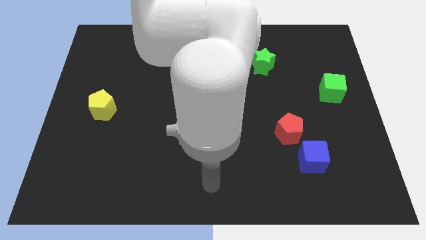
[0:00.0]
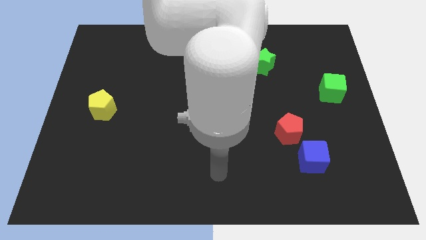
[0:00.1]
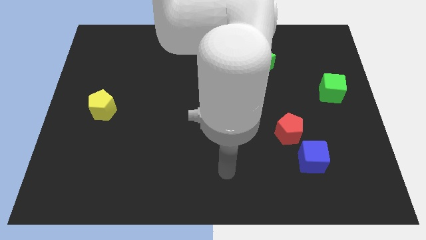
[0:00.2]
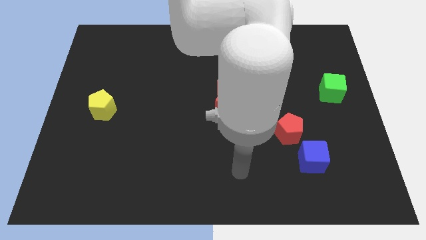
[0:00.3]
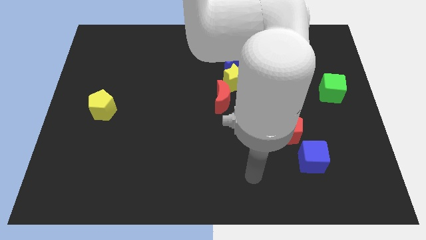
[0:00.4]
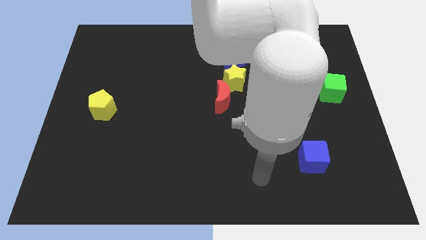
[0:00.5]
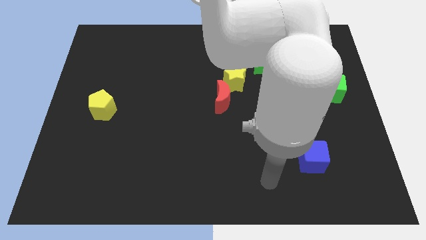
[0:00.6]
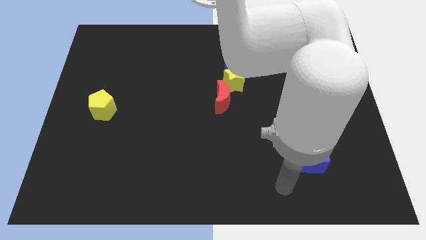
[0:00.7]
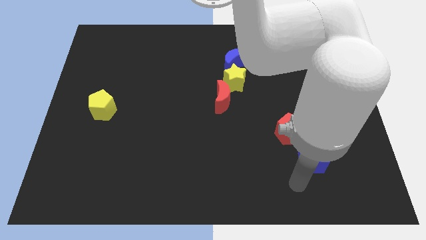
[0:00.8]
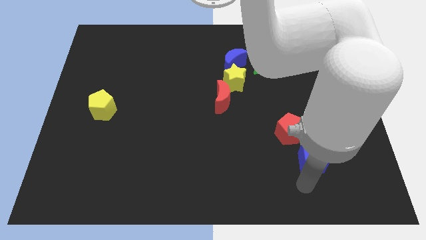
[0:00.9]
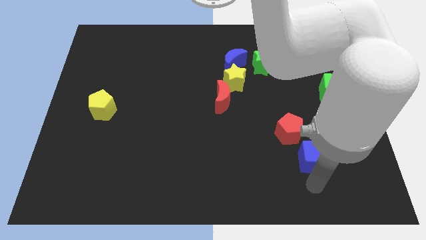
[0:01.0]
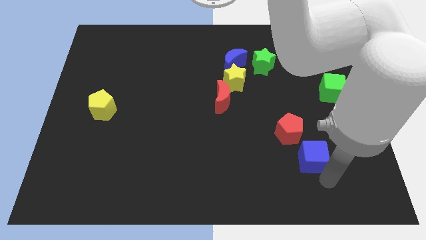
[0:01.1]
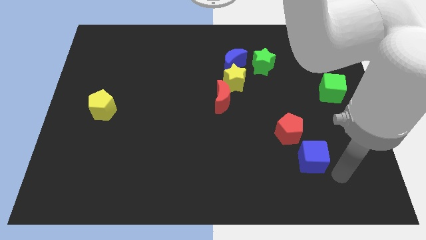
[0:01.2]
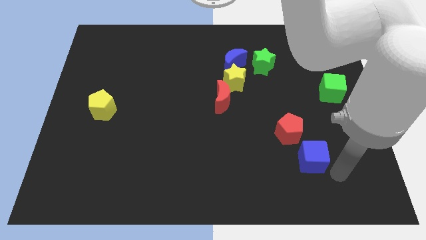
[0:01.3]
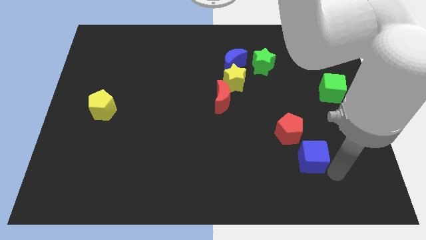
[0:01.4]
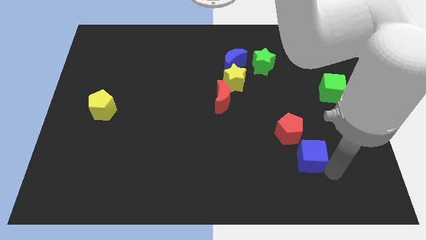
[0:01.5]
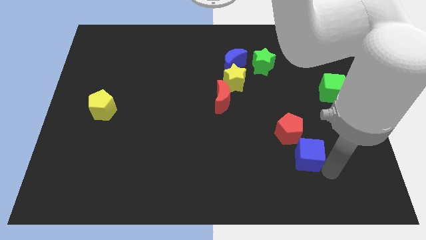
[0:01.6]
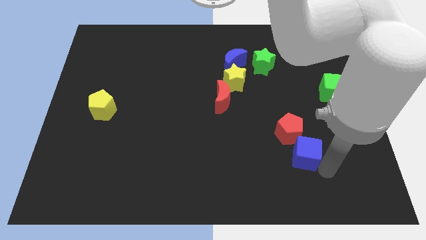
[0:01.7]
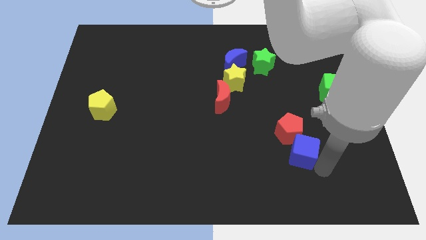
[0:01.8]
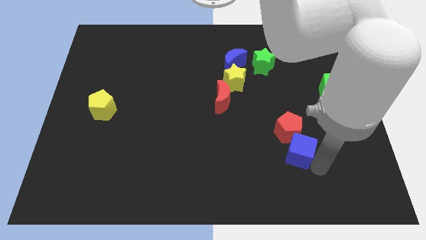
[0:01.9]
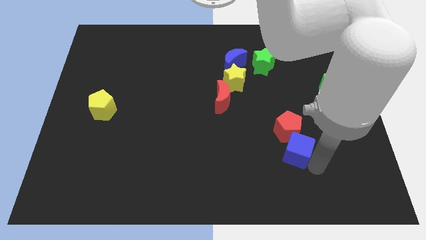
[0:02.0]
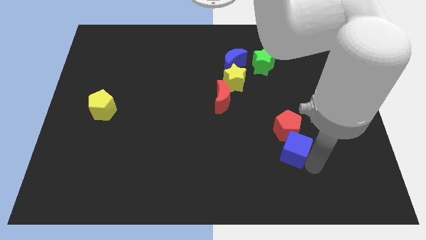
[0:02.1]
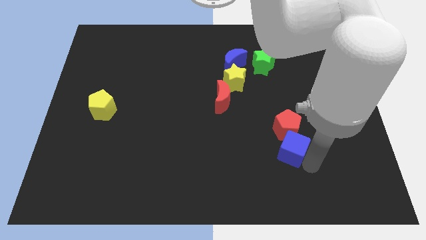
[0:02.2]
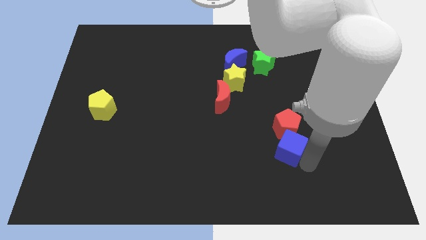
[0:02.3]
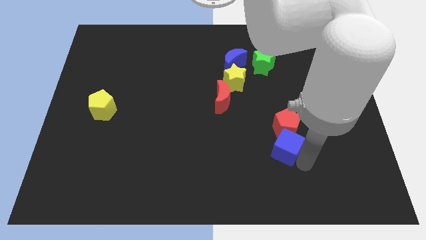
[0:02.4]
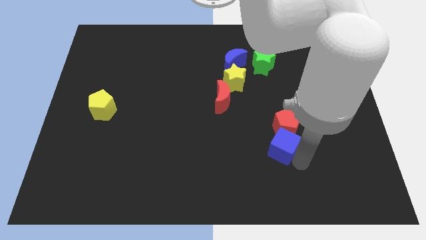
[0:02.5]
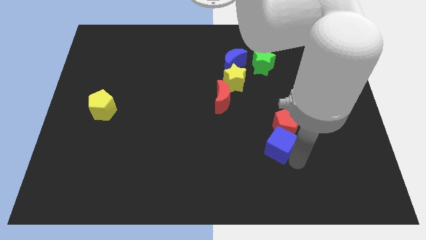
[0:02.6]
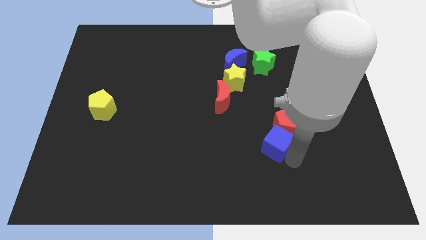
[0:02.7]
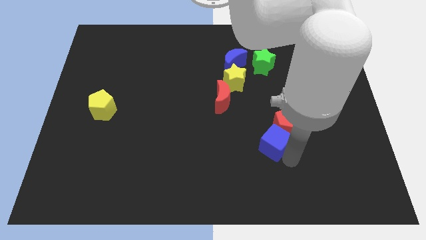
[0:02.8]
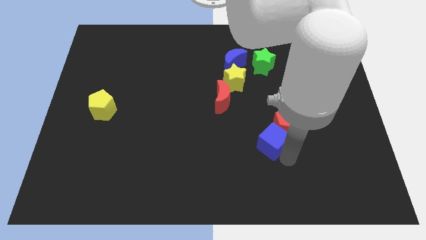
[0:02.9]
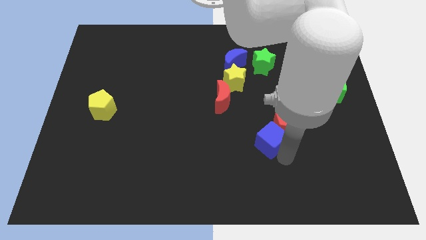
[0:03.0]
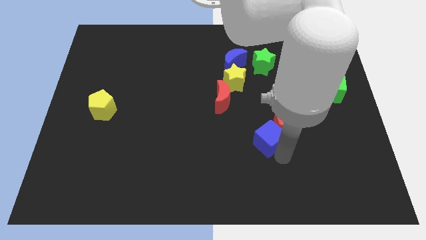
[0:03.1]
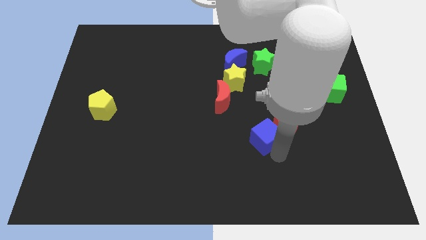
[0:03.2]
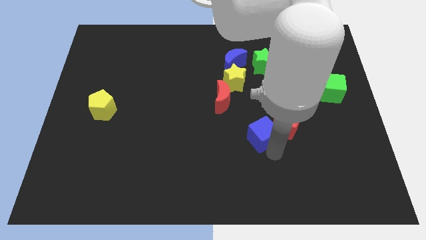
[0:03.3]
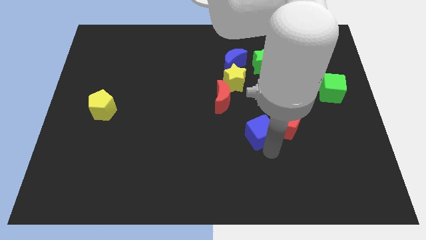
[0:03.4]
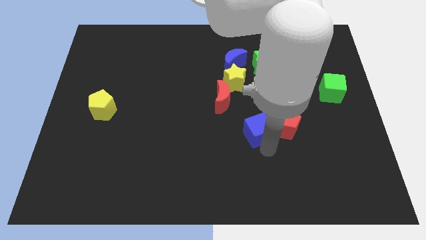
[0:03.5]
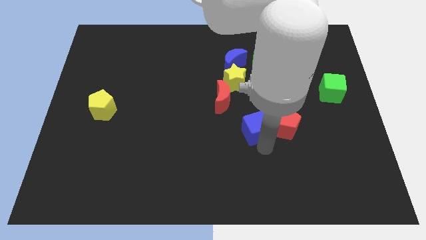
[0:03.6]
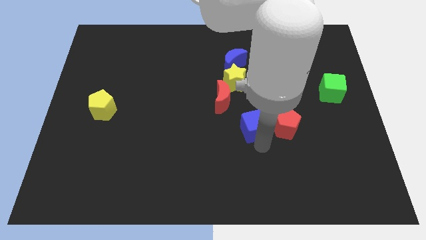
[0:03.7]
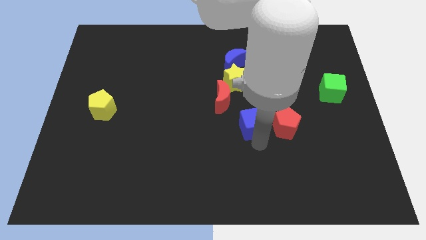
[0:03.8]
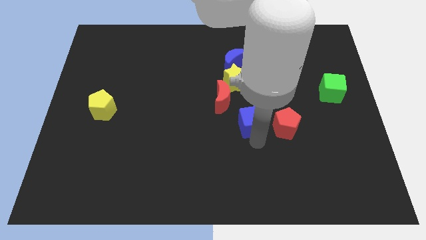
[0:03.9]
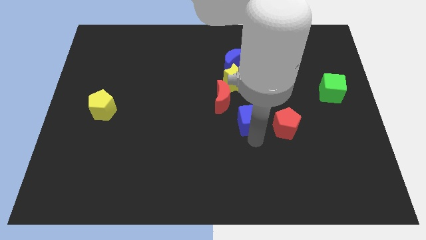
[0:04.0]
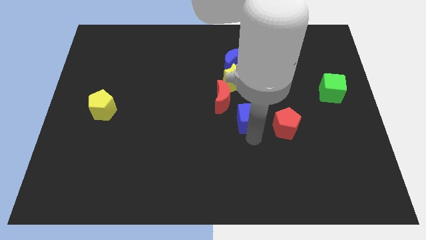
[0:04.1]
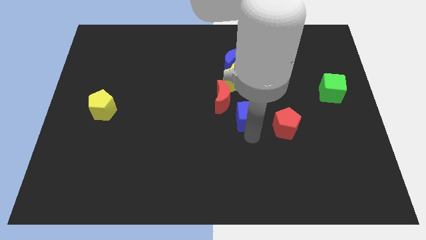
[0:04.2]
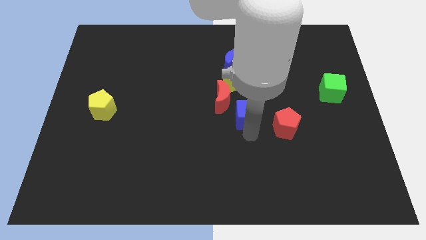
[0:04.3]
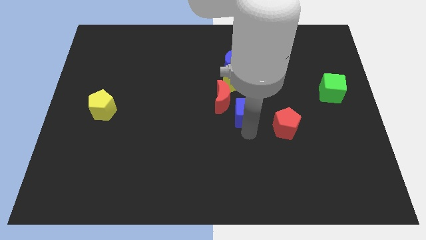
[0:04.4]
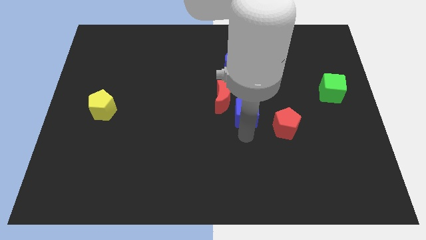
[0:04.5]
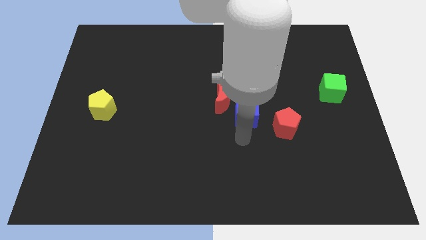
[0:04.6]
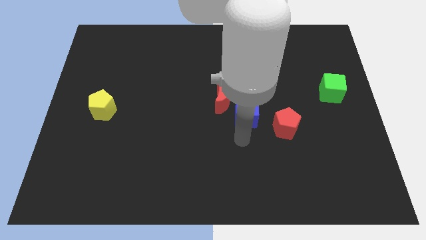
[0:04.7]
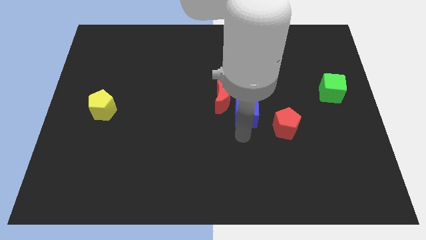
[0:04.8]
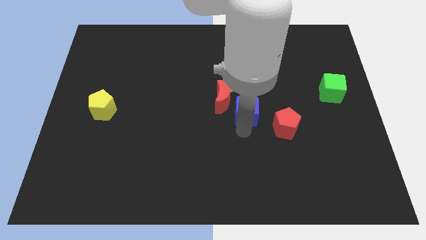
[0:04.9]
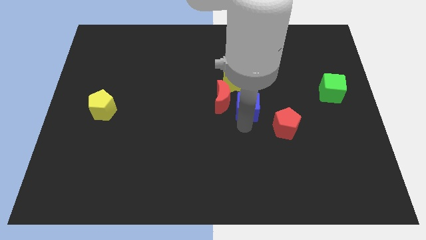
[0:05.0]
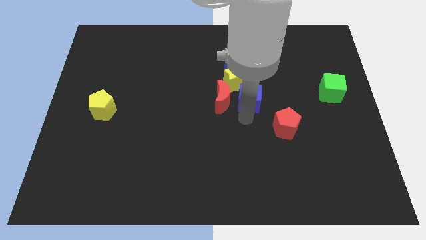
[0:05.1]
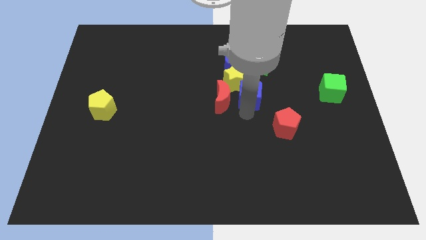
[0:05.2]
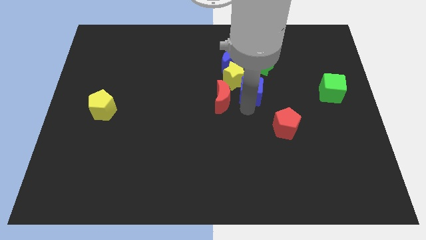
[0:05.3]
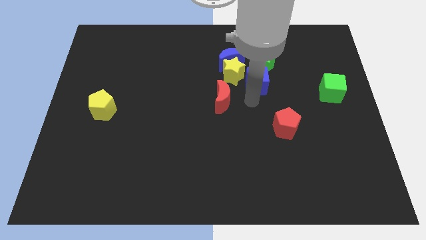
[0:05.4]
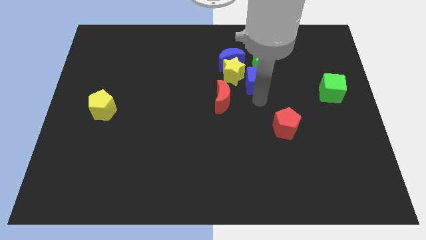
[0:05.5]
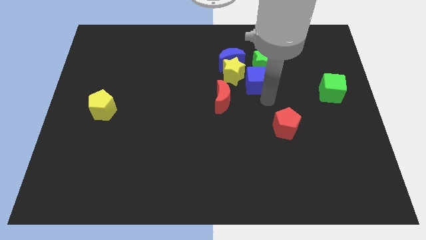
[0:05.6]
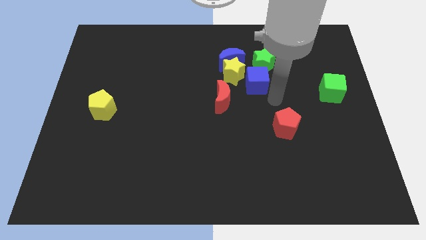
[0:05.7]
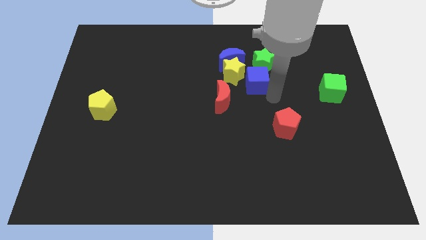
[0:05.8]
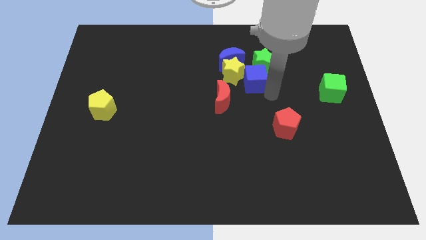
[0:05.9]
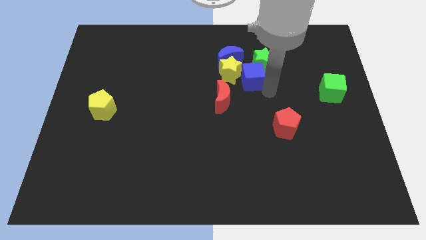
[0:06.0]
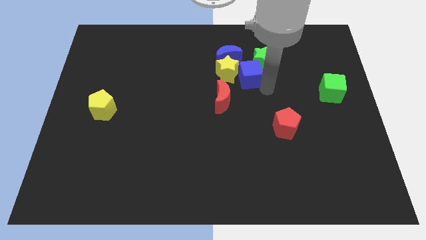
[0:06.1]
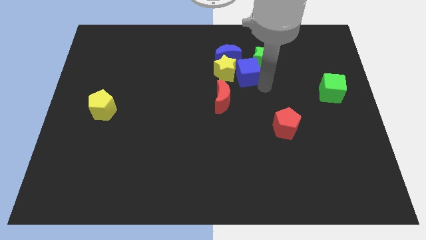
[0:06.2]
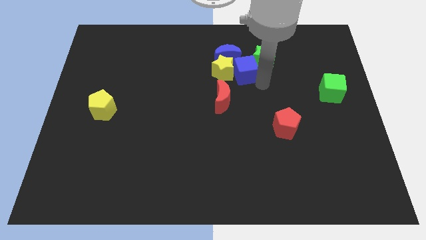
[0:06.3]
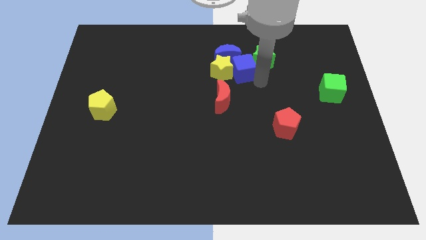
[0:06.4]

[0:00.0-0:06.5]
slide the blue cube to the blue moon
